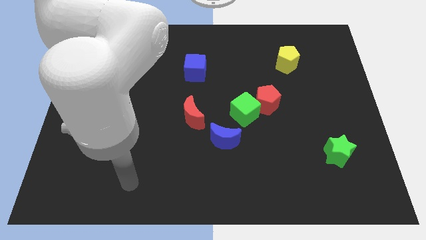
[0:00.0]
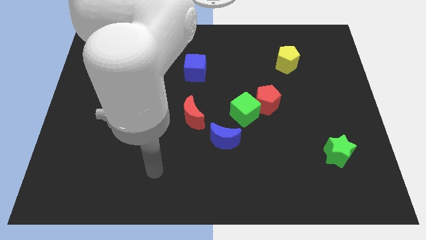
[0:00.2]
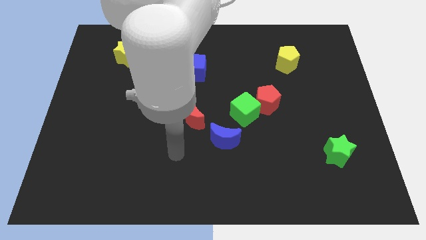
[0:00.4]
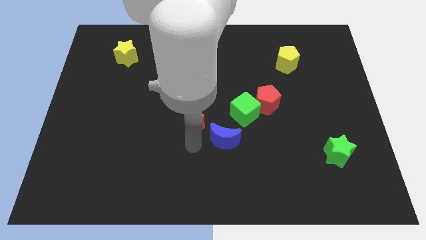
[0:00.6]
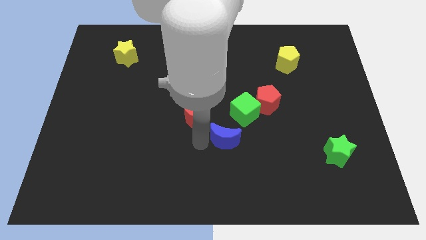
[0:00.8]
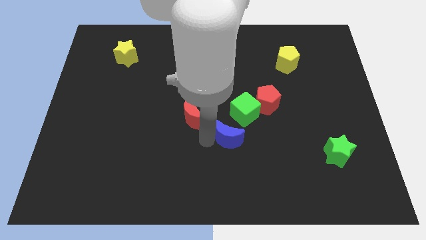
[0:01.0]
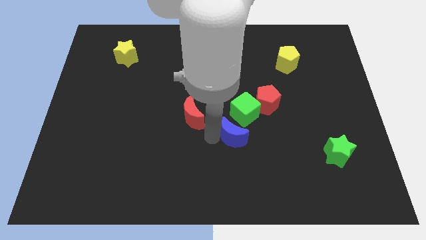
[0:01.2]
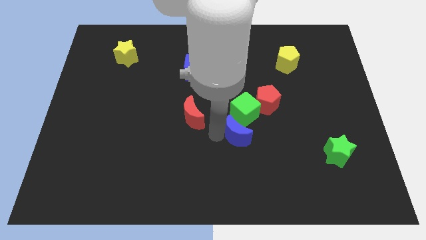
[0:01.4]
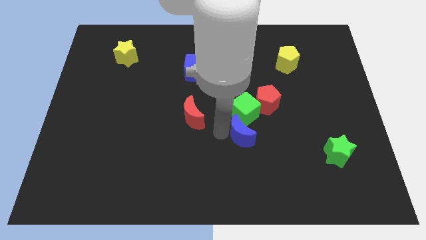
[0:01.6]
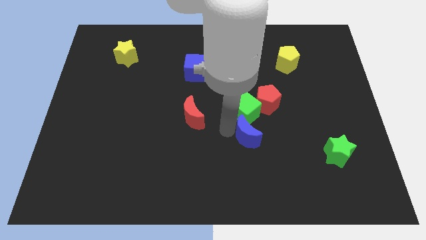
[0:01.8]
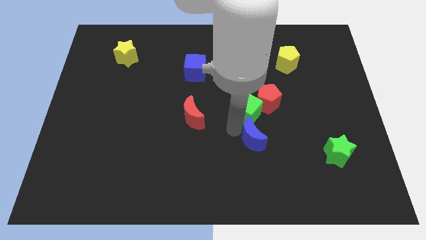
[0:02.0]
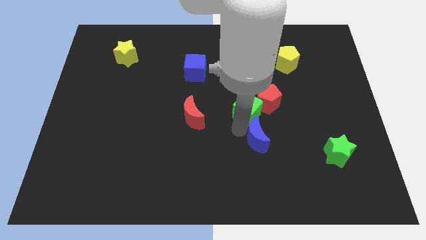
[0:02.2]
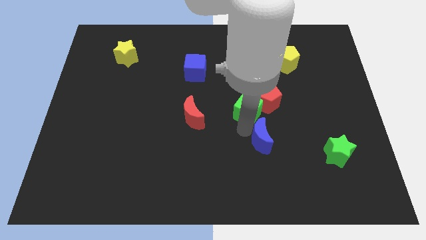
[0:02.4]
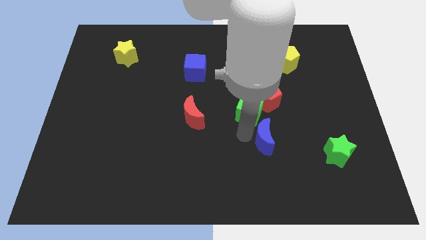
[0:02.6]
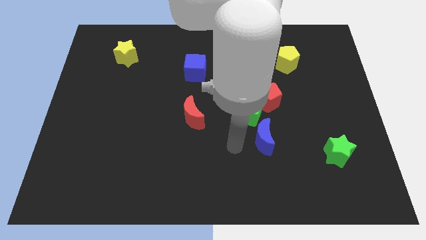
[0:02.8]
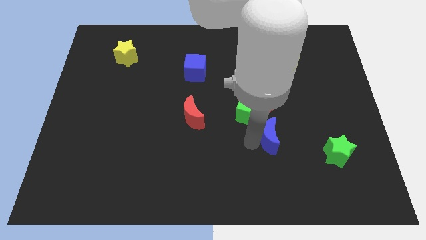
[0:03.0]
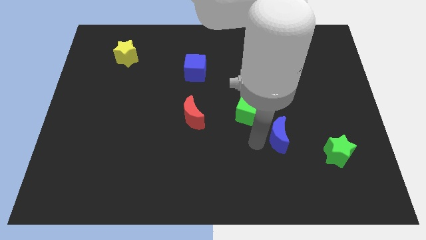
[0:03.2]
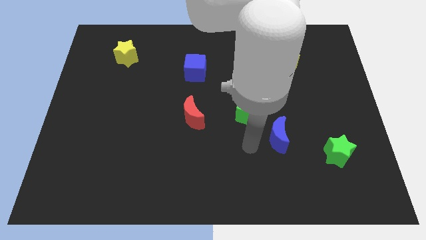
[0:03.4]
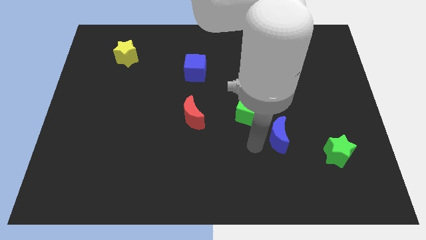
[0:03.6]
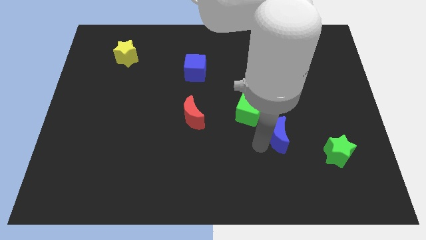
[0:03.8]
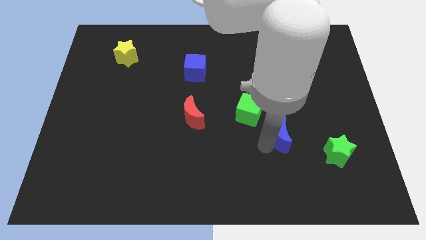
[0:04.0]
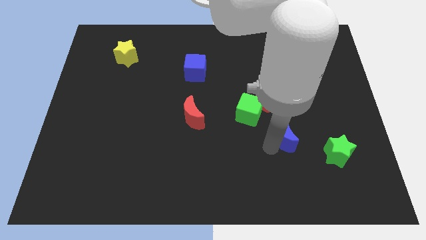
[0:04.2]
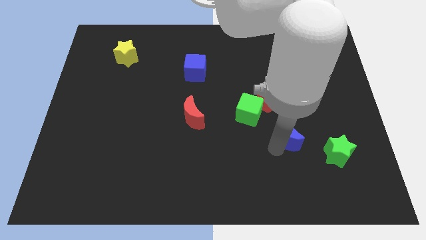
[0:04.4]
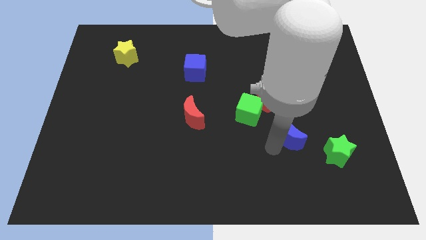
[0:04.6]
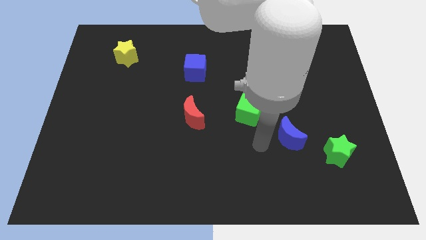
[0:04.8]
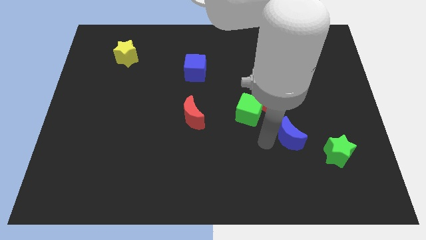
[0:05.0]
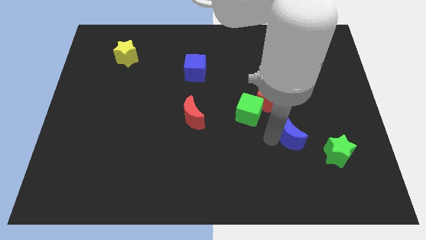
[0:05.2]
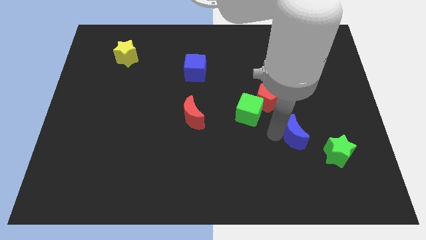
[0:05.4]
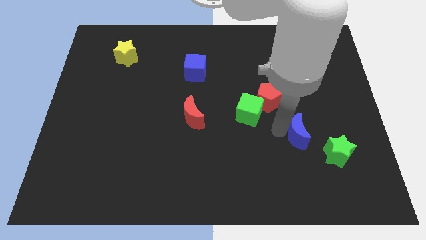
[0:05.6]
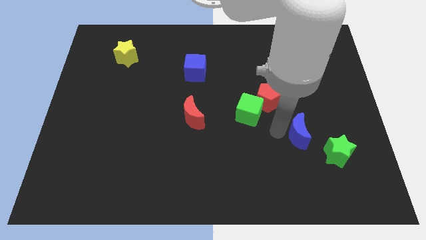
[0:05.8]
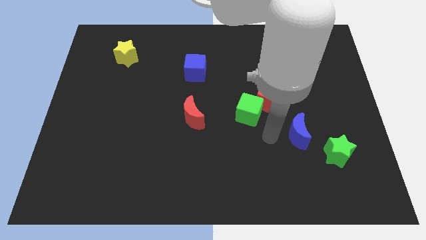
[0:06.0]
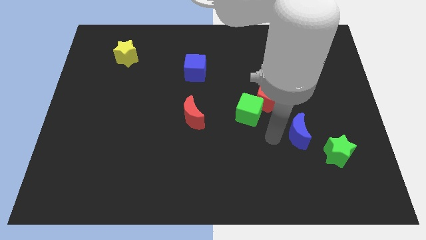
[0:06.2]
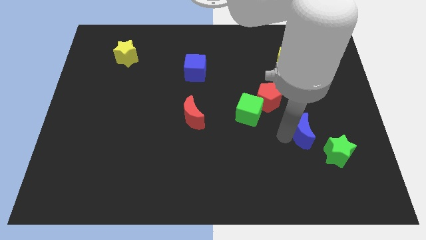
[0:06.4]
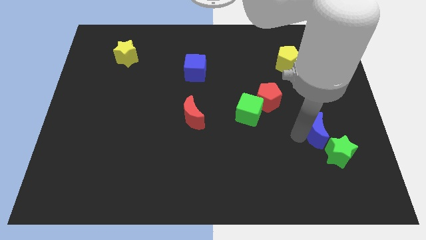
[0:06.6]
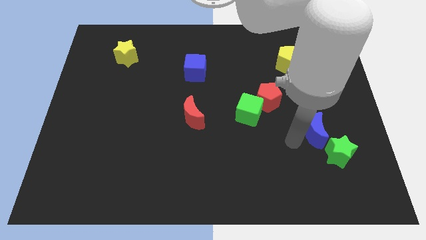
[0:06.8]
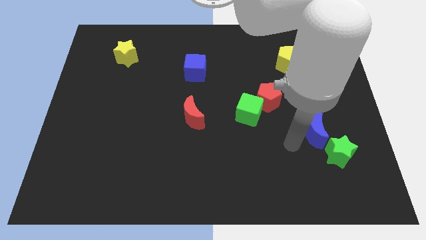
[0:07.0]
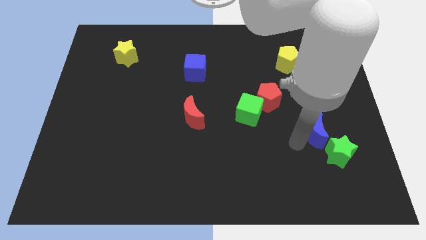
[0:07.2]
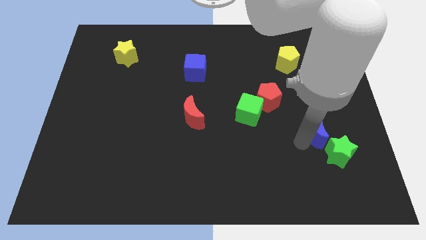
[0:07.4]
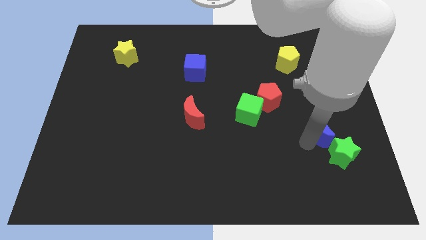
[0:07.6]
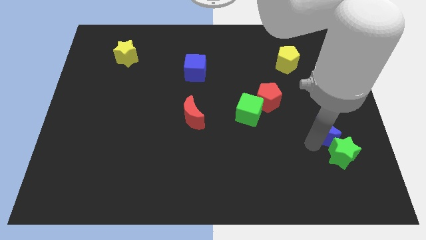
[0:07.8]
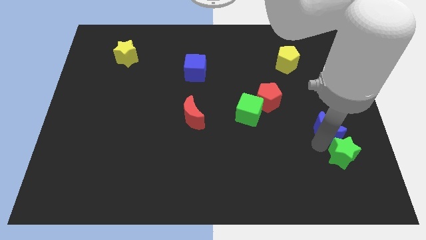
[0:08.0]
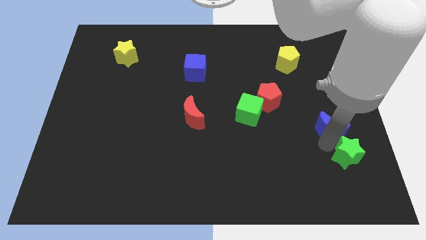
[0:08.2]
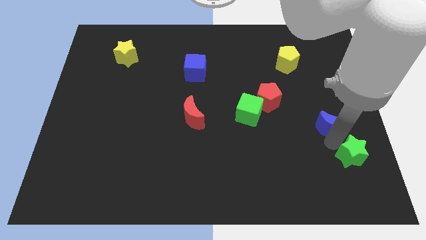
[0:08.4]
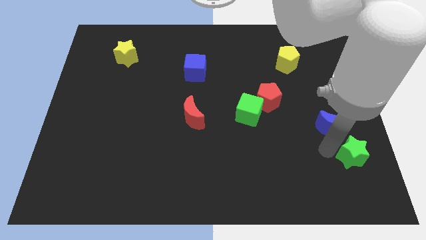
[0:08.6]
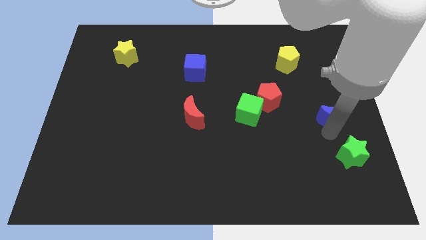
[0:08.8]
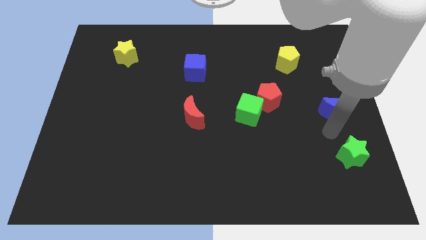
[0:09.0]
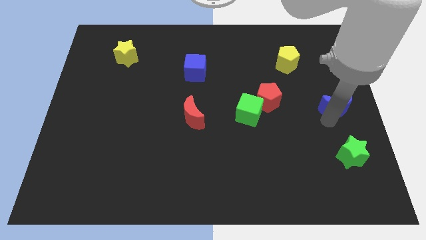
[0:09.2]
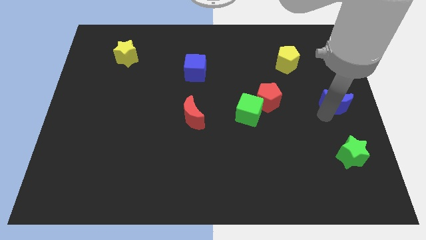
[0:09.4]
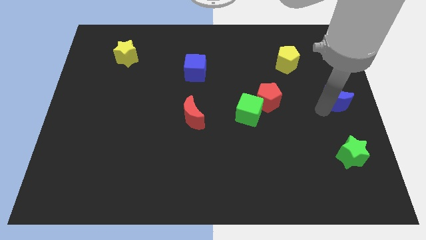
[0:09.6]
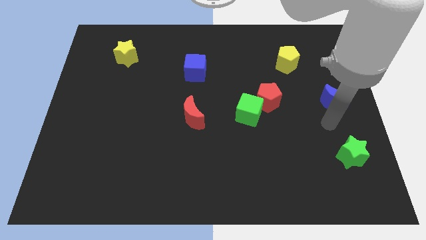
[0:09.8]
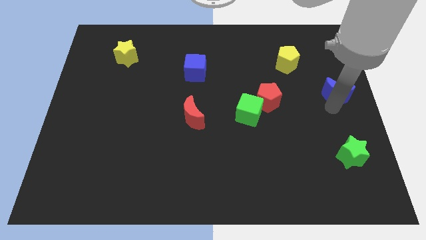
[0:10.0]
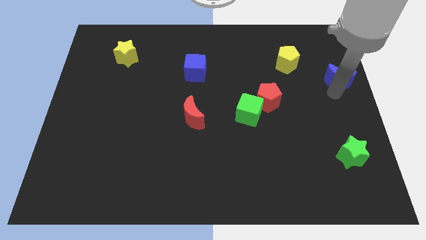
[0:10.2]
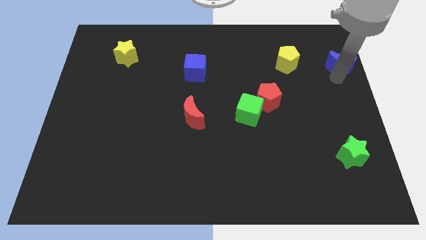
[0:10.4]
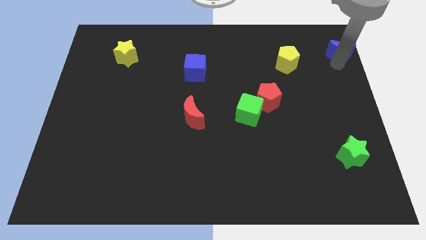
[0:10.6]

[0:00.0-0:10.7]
put the blue moon to the top right of the board

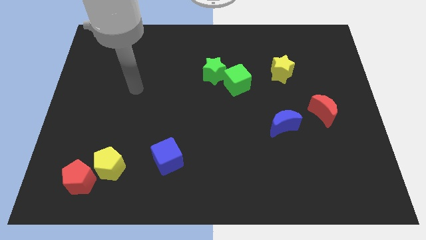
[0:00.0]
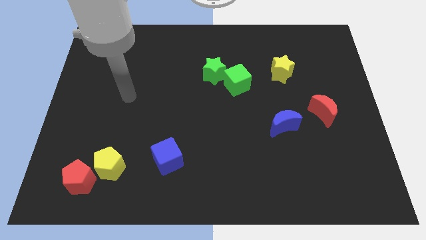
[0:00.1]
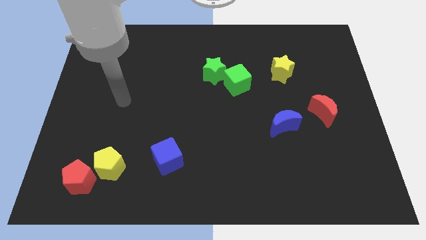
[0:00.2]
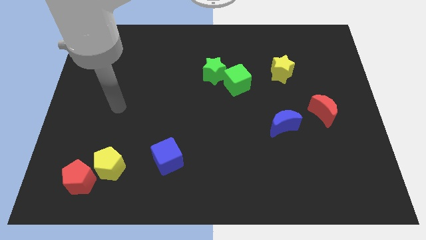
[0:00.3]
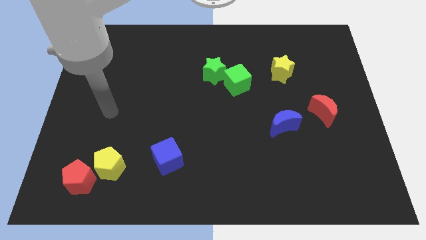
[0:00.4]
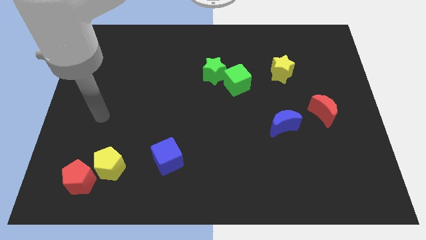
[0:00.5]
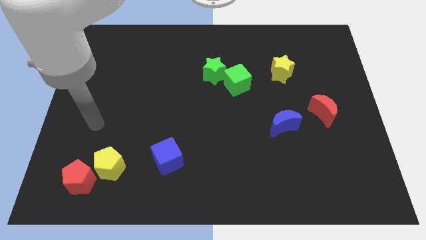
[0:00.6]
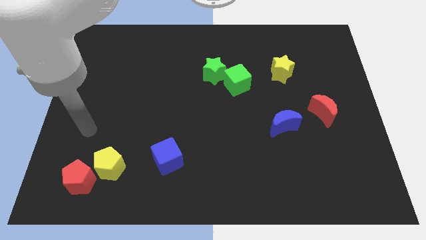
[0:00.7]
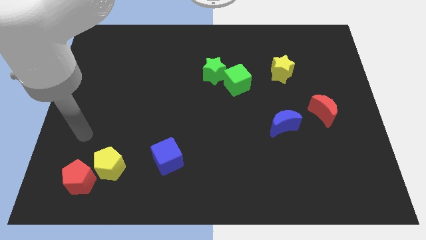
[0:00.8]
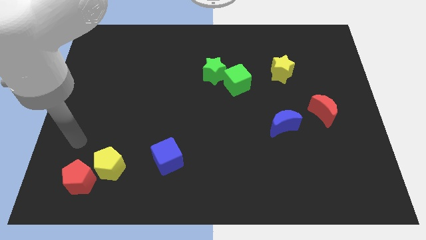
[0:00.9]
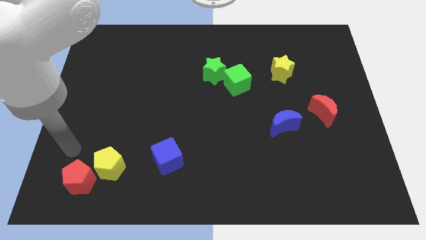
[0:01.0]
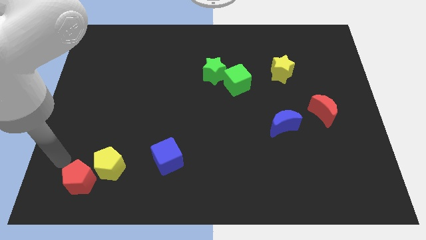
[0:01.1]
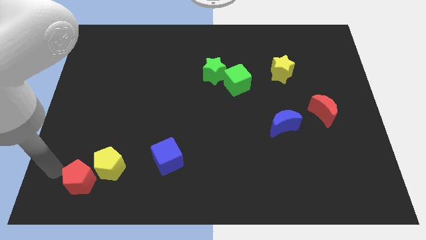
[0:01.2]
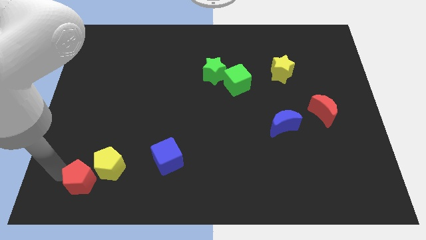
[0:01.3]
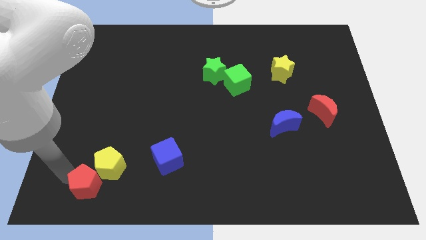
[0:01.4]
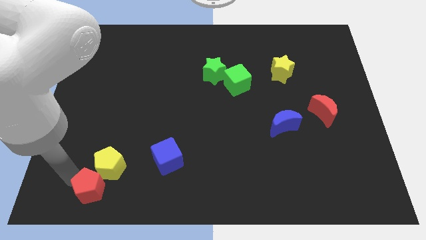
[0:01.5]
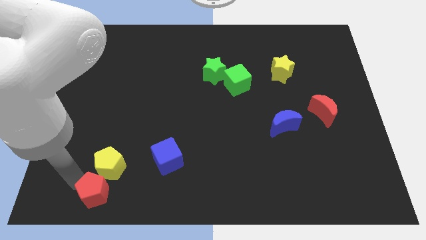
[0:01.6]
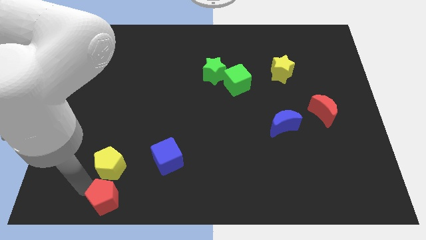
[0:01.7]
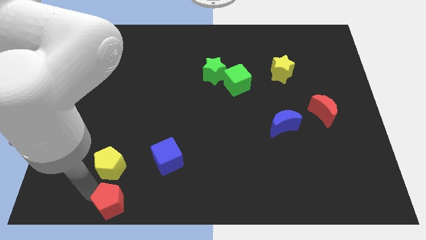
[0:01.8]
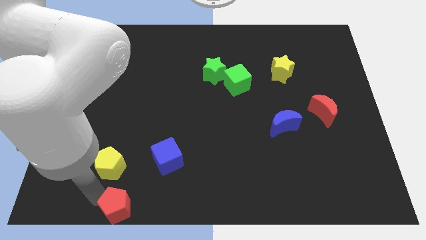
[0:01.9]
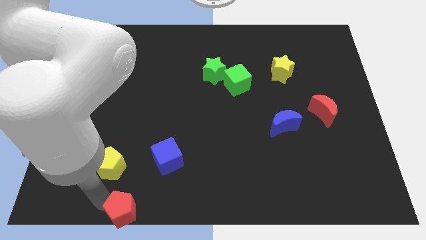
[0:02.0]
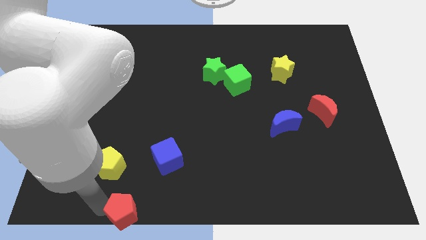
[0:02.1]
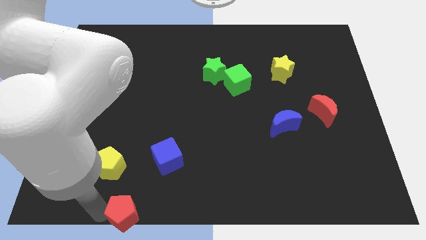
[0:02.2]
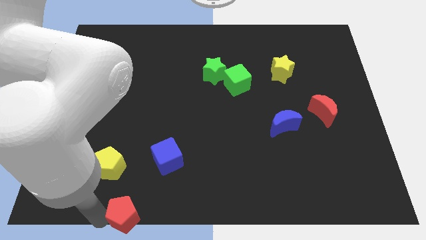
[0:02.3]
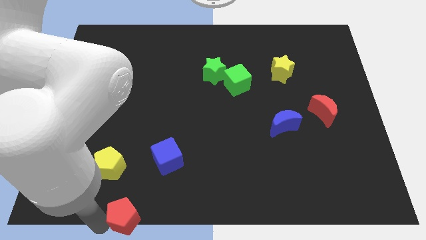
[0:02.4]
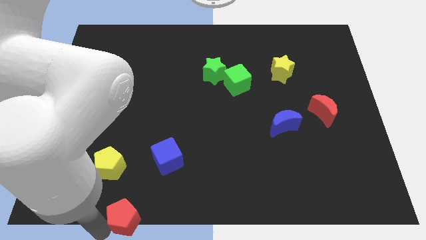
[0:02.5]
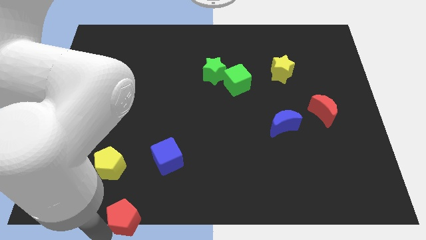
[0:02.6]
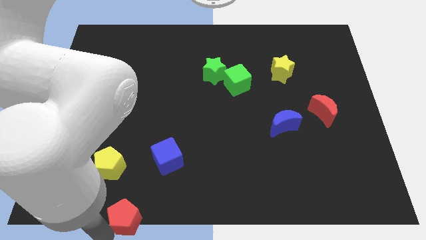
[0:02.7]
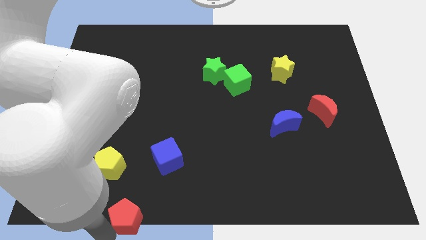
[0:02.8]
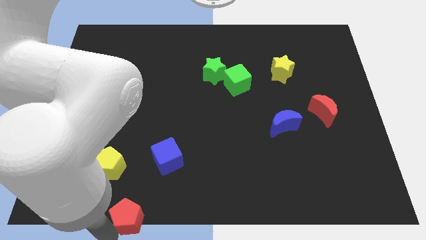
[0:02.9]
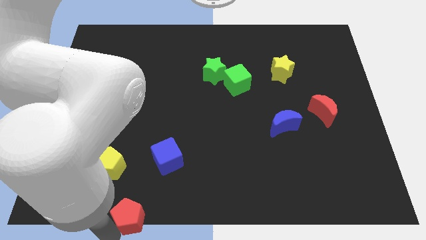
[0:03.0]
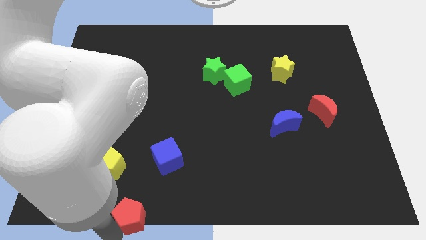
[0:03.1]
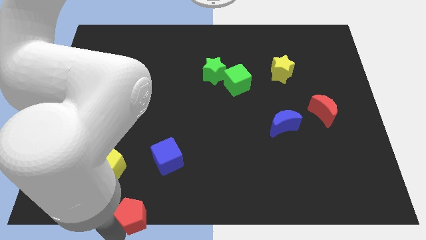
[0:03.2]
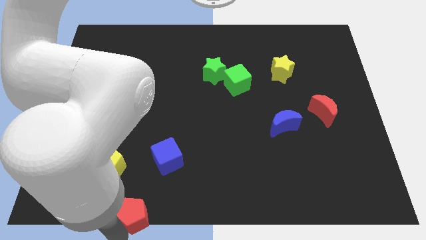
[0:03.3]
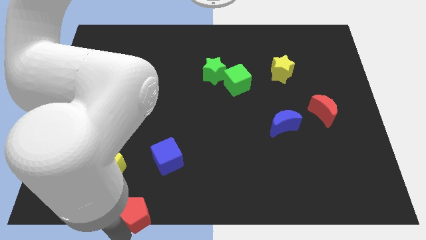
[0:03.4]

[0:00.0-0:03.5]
push the red pentagon to the bottom
